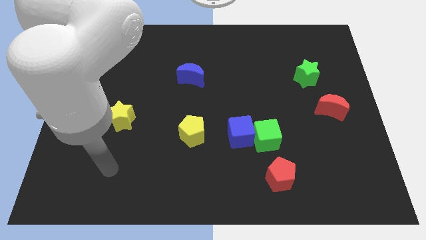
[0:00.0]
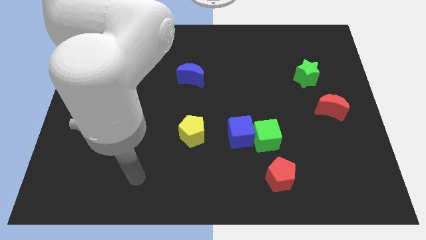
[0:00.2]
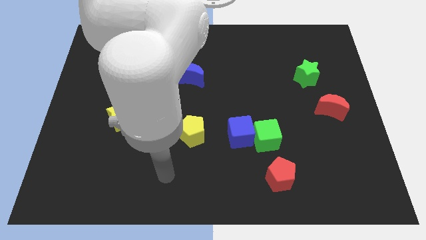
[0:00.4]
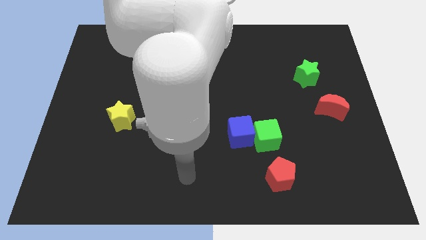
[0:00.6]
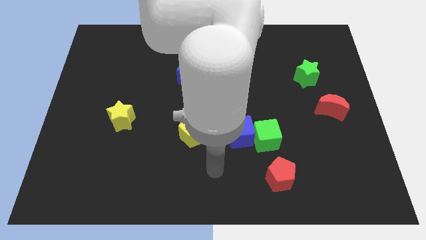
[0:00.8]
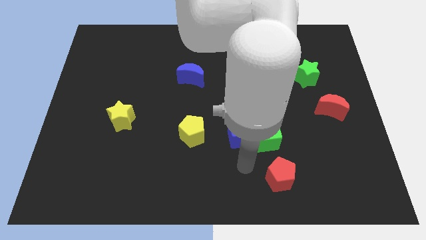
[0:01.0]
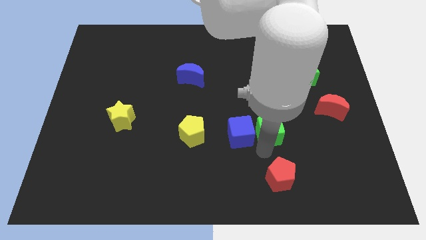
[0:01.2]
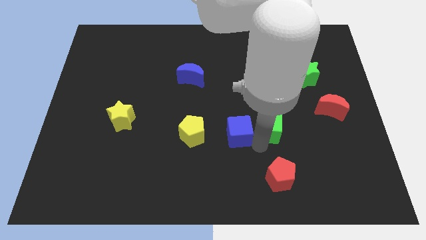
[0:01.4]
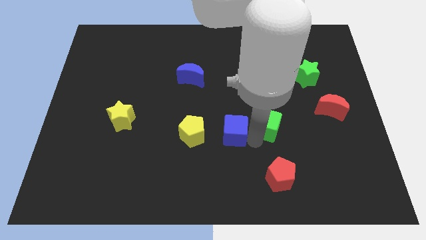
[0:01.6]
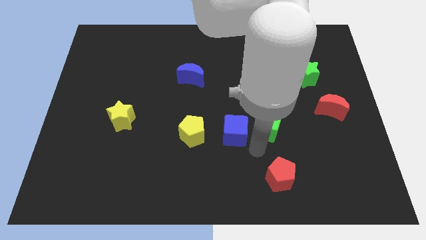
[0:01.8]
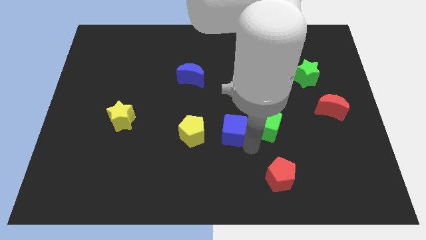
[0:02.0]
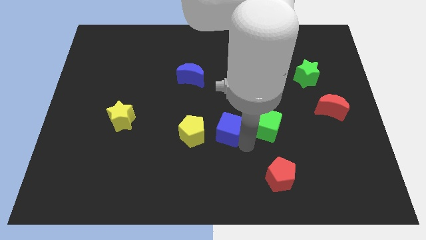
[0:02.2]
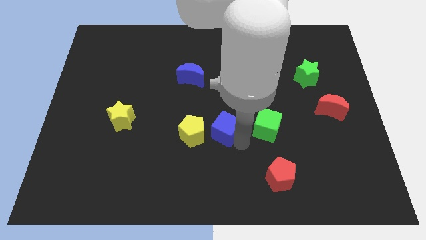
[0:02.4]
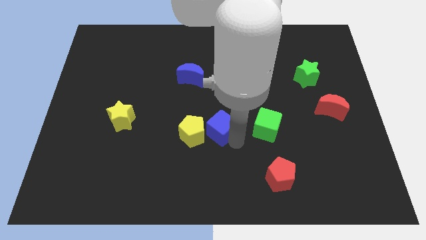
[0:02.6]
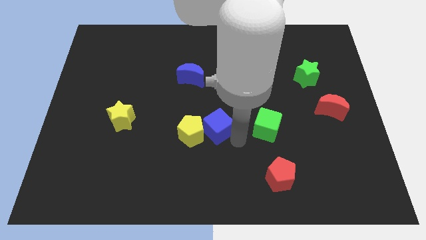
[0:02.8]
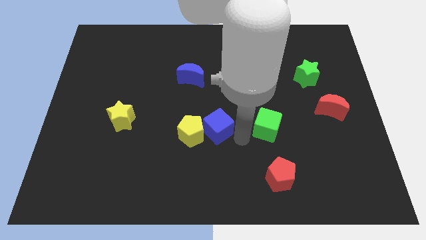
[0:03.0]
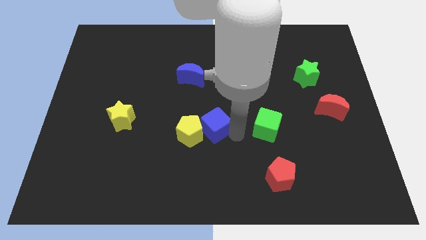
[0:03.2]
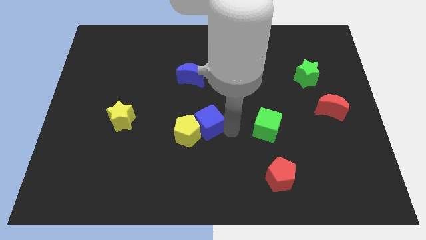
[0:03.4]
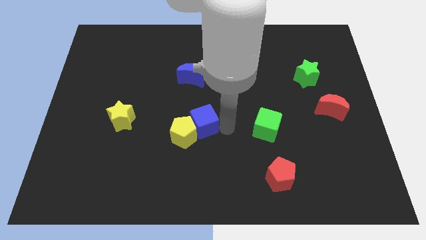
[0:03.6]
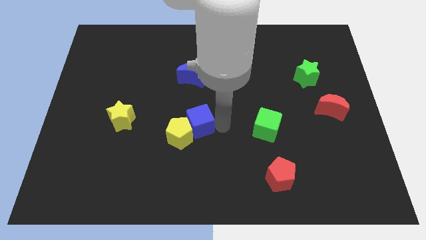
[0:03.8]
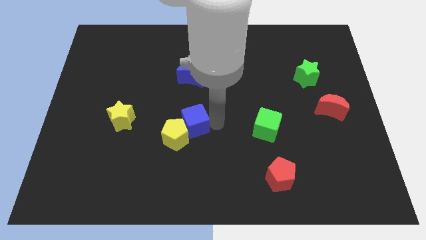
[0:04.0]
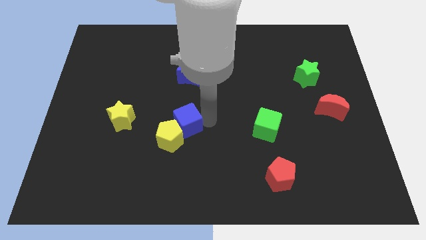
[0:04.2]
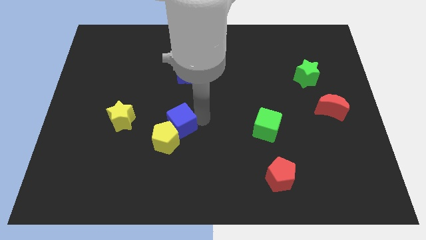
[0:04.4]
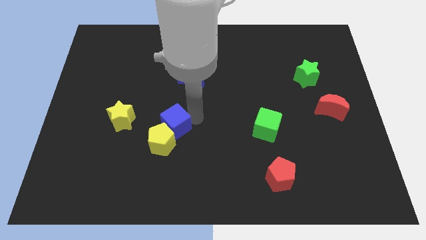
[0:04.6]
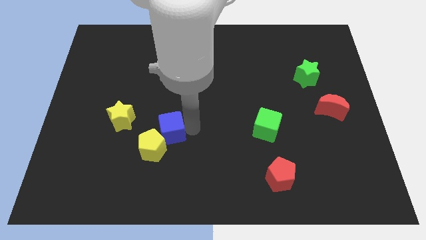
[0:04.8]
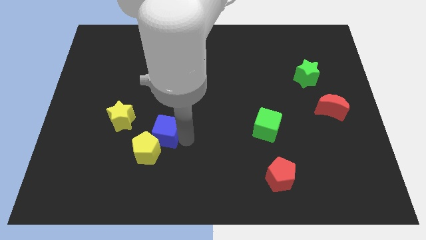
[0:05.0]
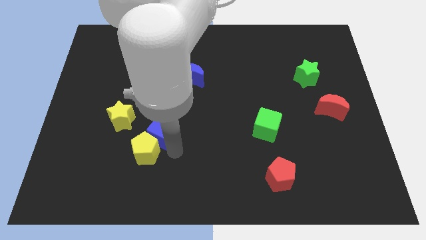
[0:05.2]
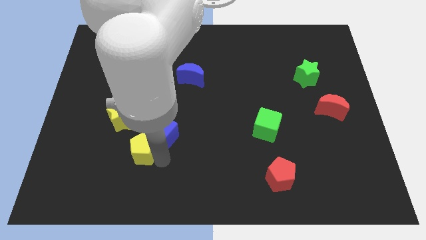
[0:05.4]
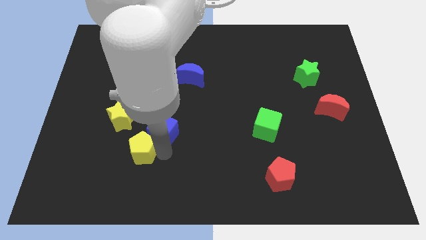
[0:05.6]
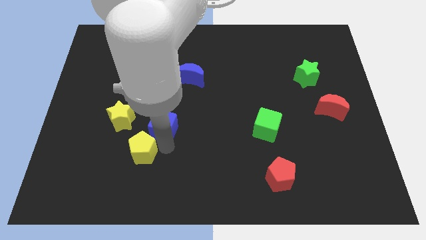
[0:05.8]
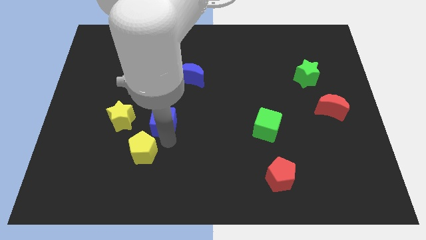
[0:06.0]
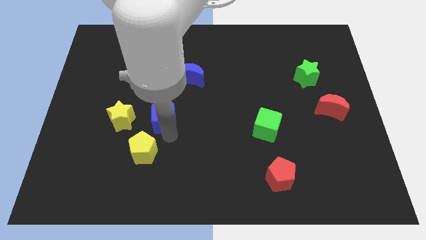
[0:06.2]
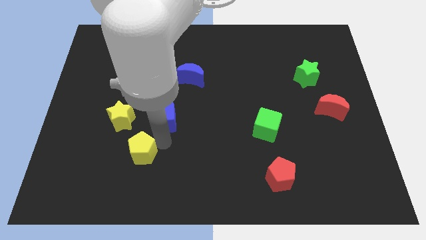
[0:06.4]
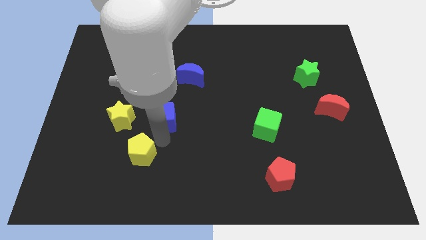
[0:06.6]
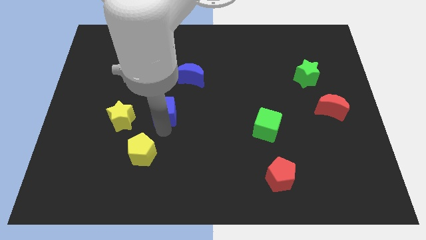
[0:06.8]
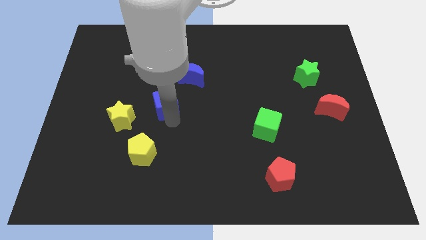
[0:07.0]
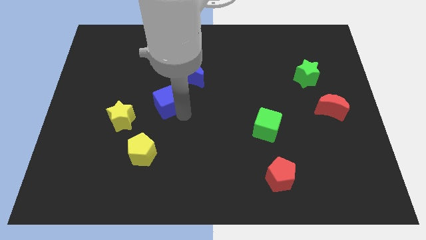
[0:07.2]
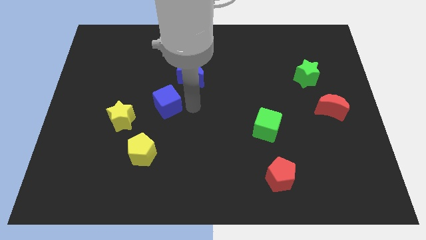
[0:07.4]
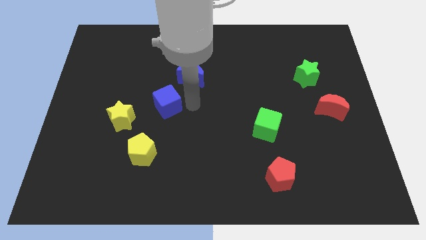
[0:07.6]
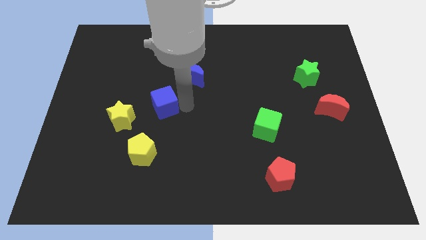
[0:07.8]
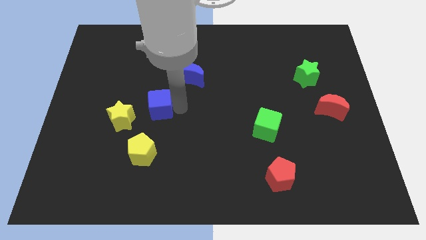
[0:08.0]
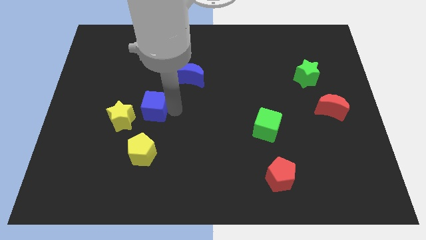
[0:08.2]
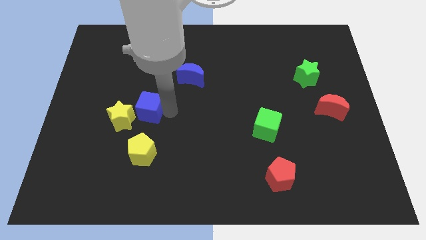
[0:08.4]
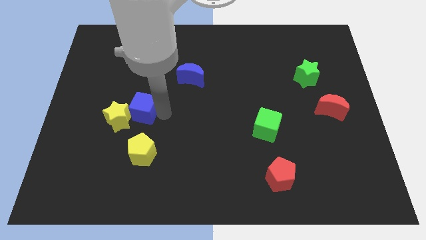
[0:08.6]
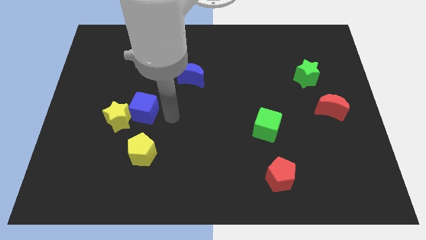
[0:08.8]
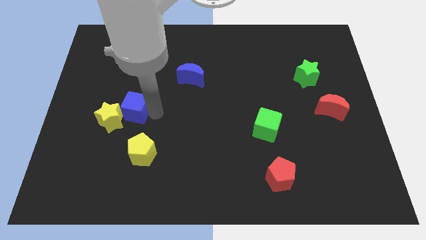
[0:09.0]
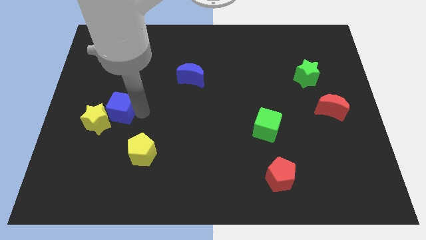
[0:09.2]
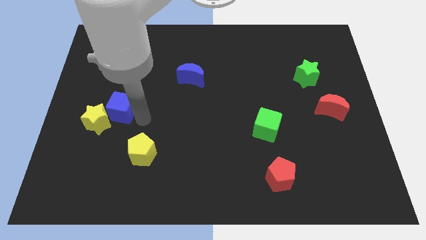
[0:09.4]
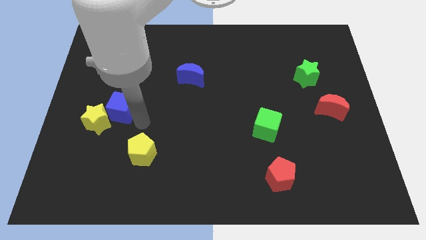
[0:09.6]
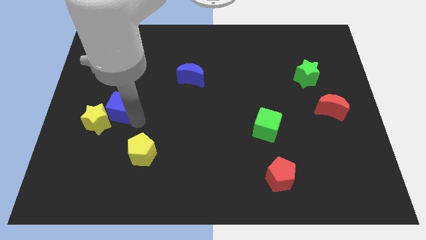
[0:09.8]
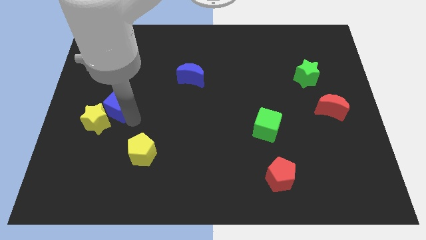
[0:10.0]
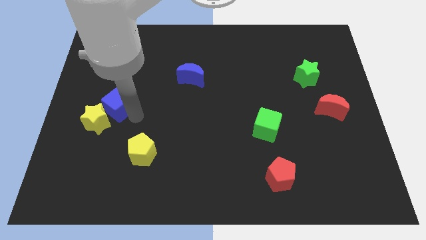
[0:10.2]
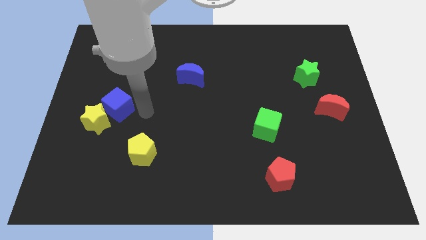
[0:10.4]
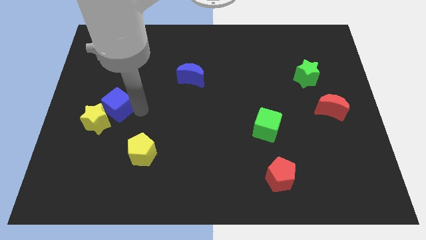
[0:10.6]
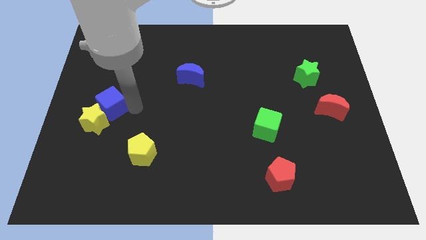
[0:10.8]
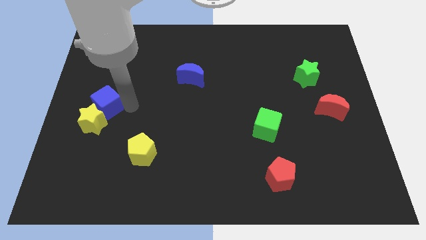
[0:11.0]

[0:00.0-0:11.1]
move the blue cube to the left side of the board

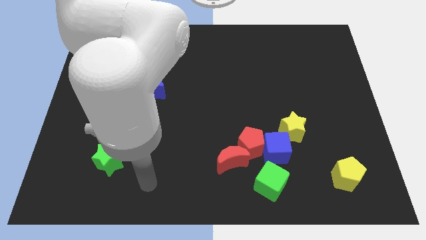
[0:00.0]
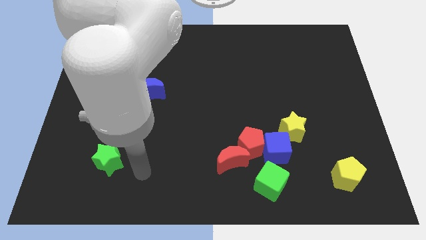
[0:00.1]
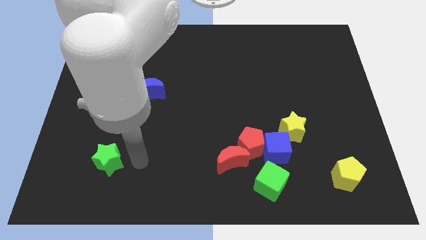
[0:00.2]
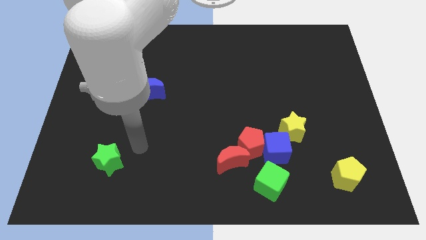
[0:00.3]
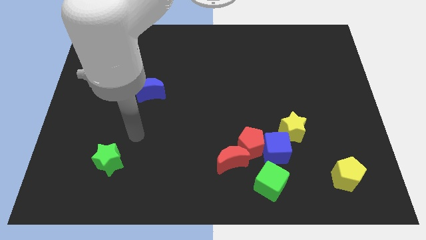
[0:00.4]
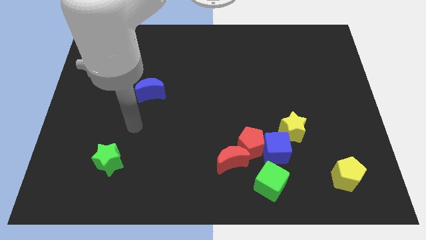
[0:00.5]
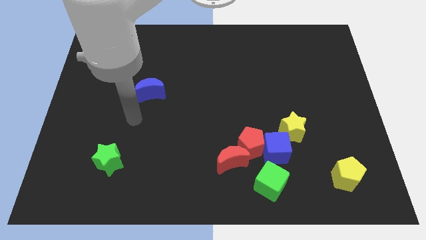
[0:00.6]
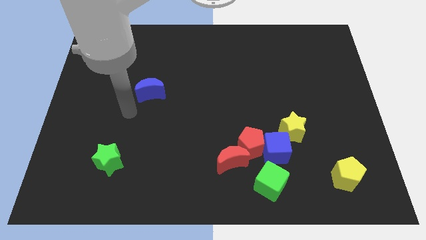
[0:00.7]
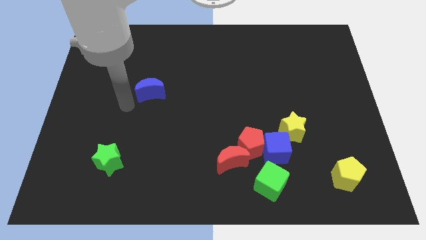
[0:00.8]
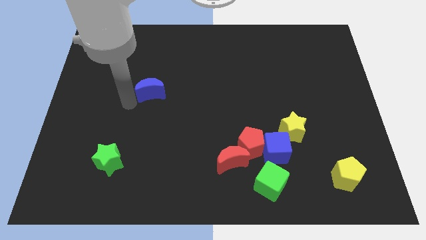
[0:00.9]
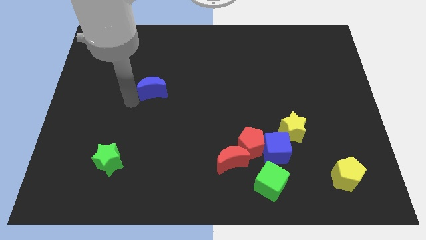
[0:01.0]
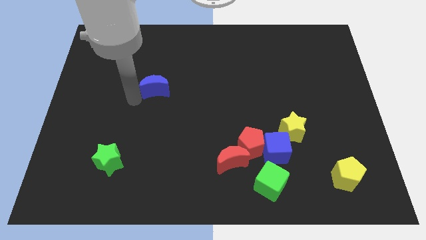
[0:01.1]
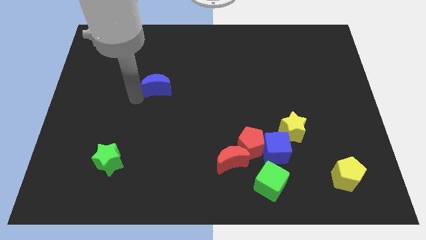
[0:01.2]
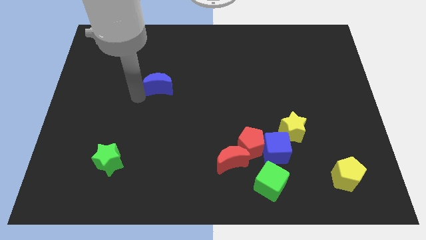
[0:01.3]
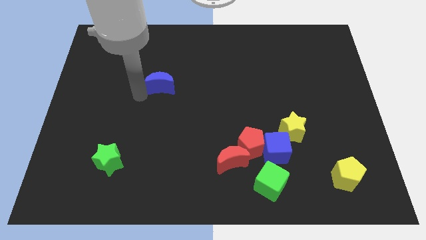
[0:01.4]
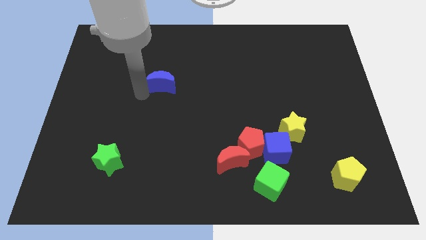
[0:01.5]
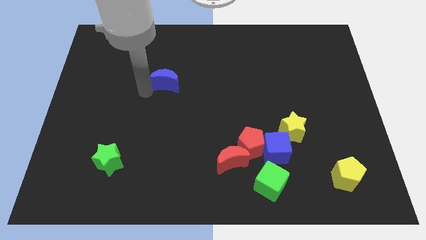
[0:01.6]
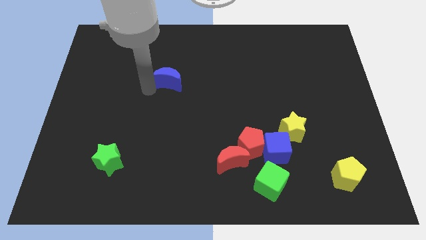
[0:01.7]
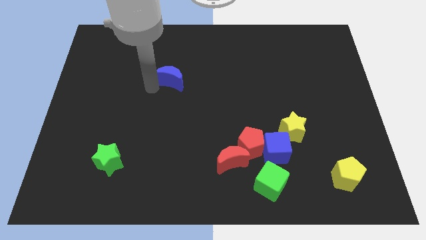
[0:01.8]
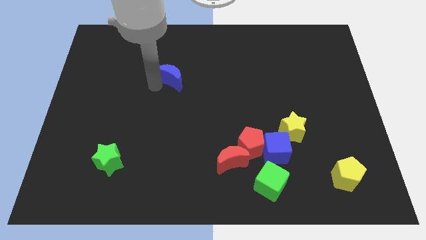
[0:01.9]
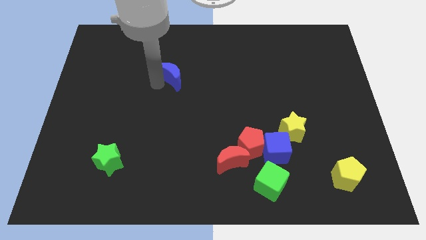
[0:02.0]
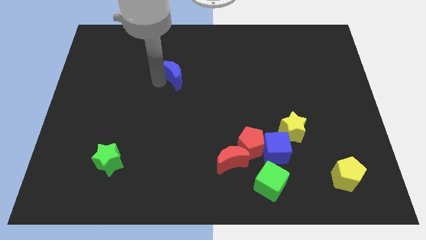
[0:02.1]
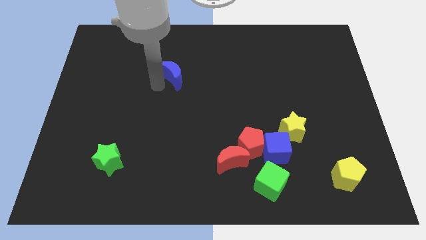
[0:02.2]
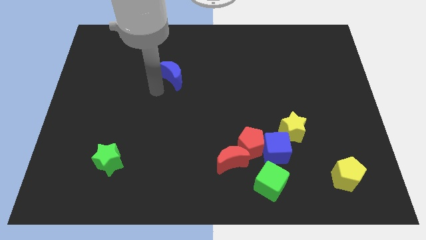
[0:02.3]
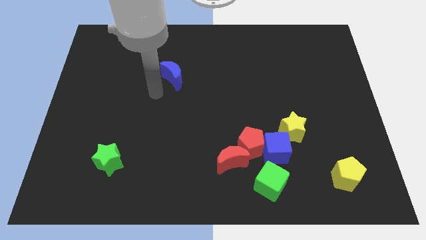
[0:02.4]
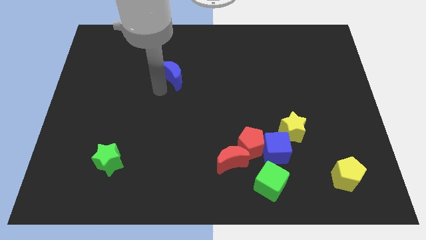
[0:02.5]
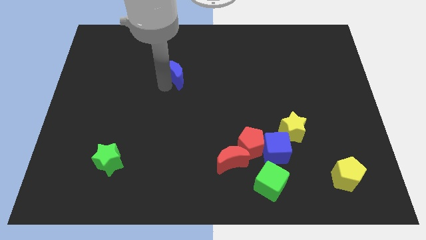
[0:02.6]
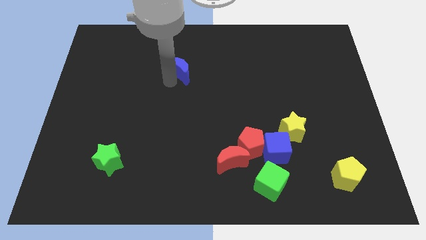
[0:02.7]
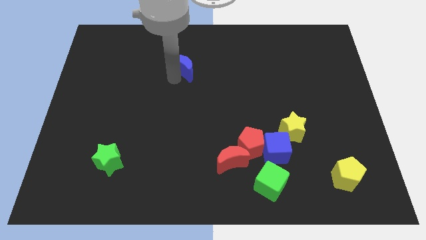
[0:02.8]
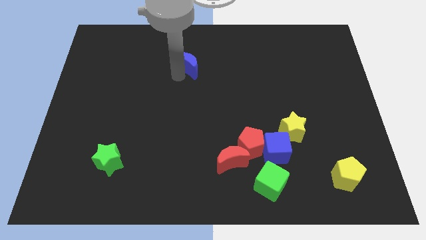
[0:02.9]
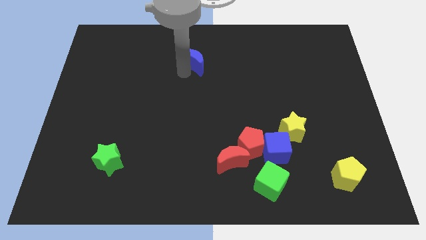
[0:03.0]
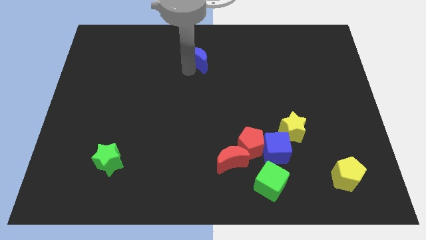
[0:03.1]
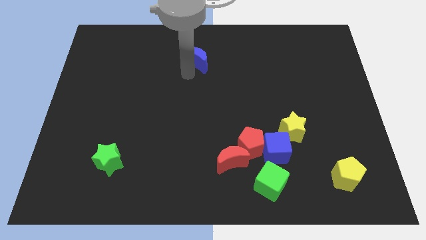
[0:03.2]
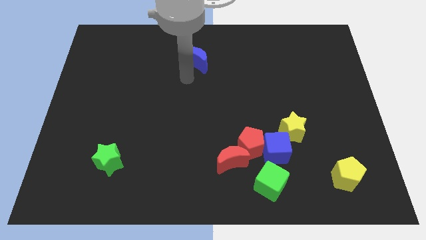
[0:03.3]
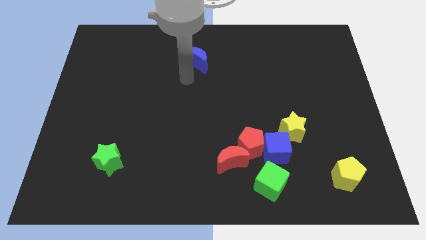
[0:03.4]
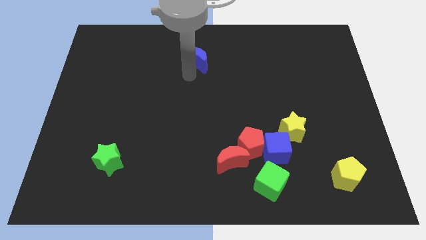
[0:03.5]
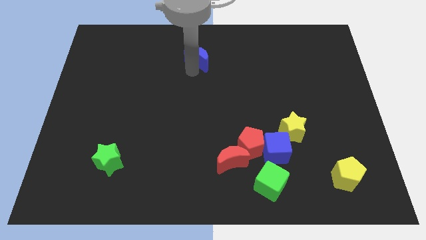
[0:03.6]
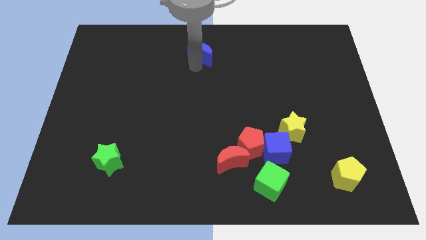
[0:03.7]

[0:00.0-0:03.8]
push the blue moon to the top
